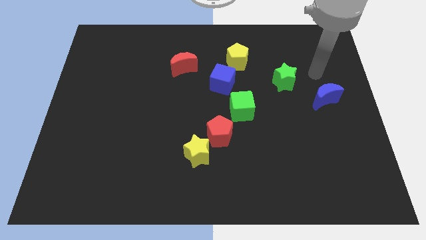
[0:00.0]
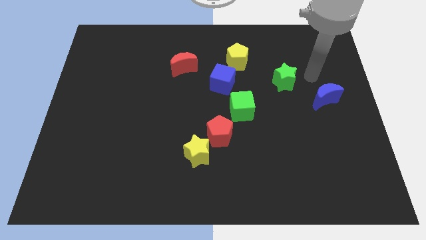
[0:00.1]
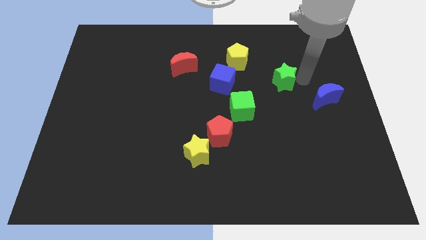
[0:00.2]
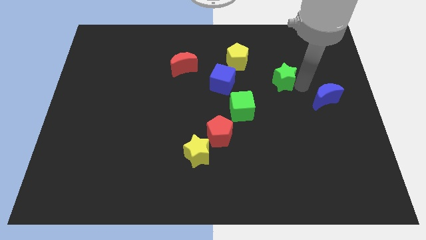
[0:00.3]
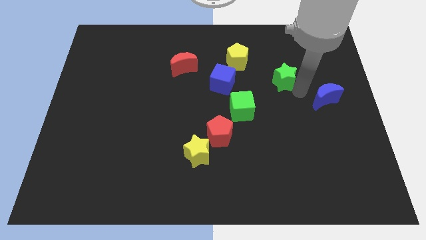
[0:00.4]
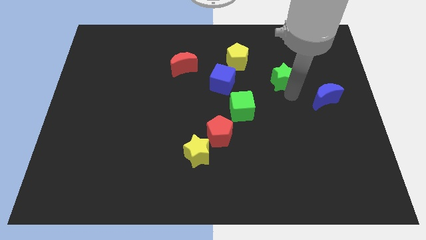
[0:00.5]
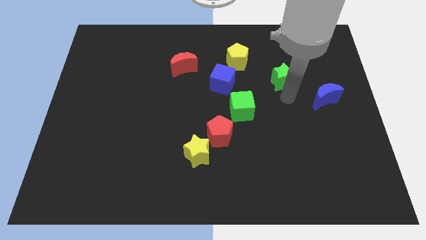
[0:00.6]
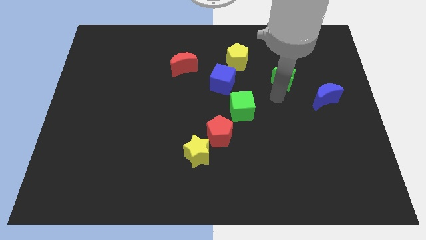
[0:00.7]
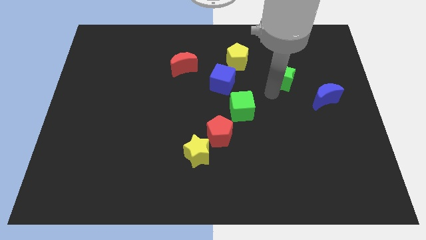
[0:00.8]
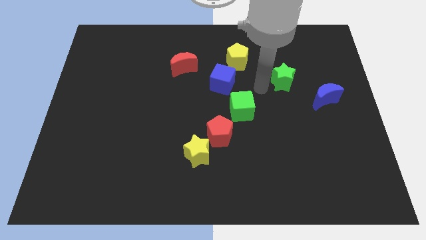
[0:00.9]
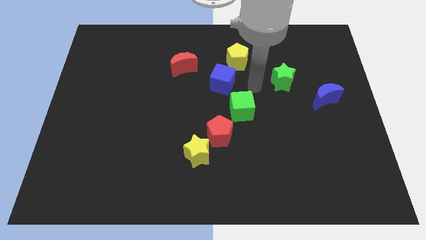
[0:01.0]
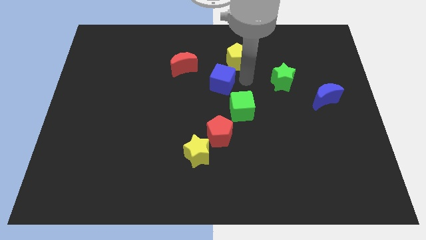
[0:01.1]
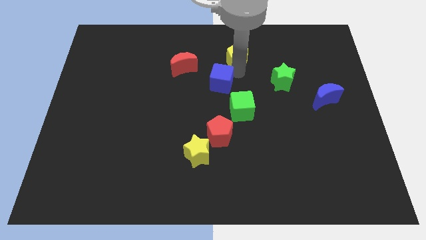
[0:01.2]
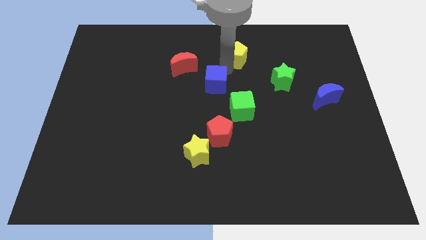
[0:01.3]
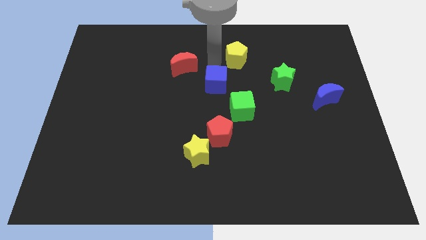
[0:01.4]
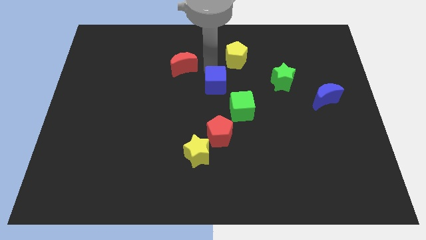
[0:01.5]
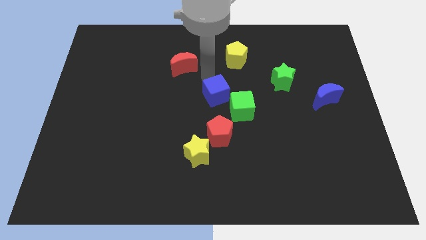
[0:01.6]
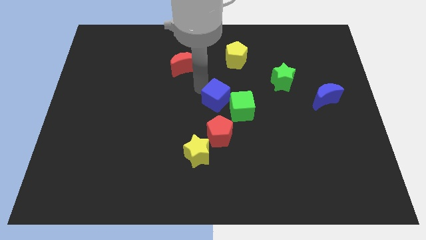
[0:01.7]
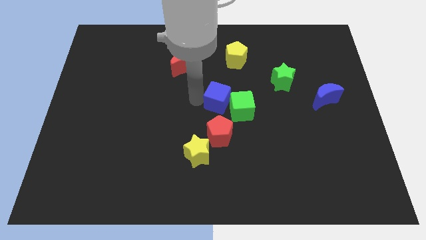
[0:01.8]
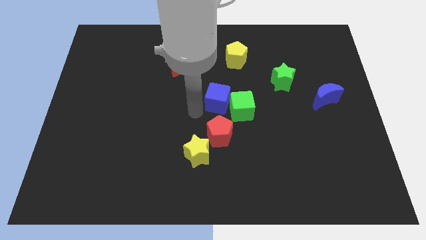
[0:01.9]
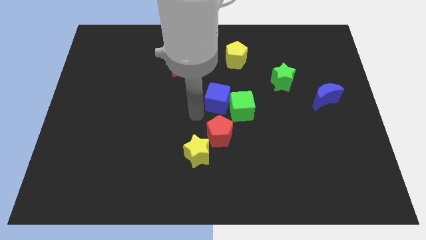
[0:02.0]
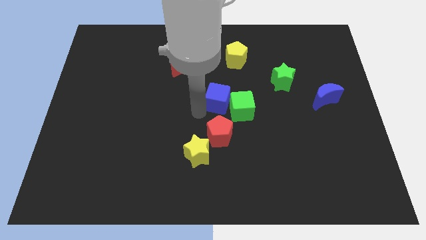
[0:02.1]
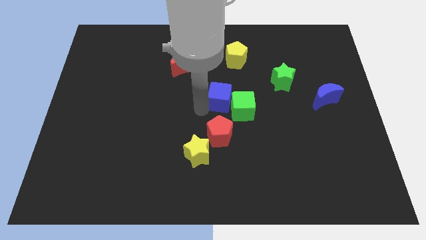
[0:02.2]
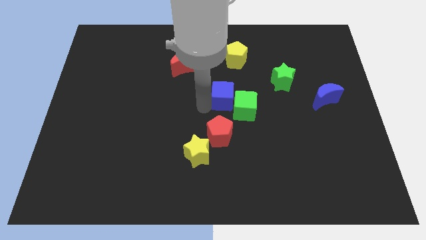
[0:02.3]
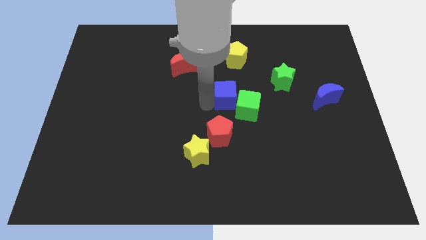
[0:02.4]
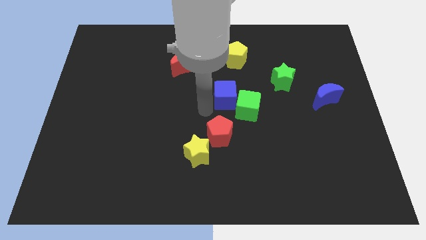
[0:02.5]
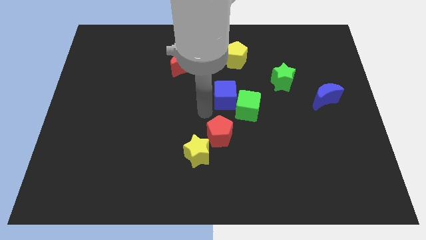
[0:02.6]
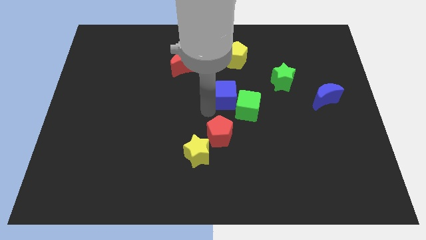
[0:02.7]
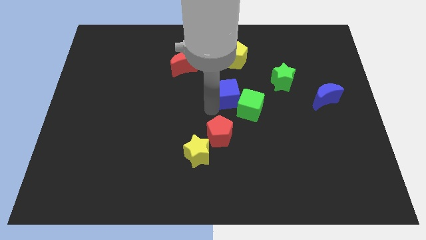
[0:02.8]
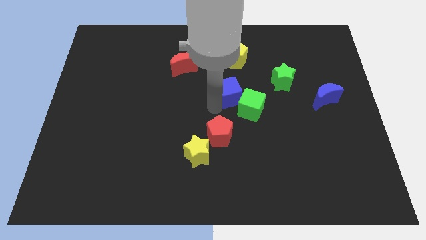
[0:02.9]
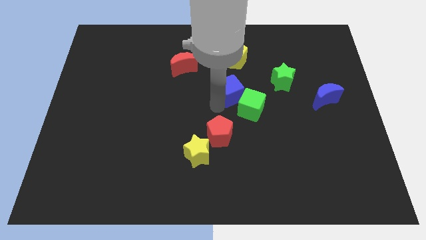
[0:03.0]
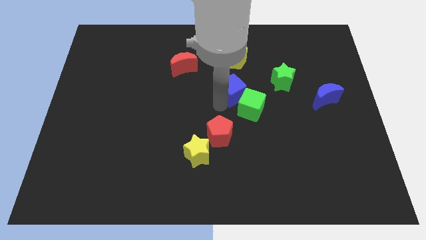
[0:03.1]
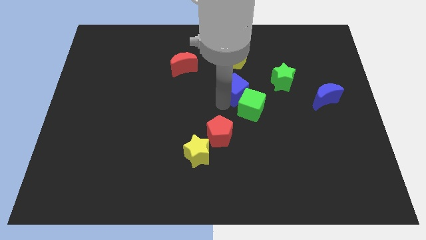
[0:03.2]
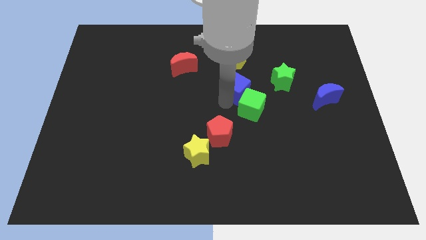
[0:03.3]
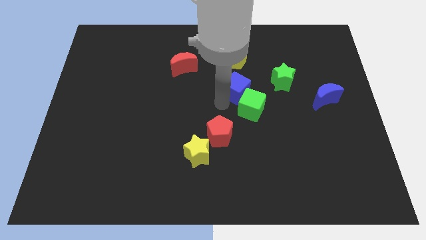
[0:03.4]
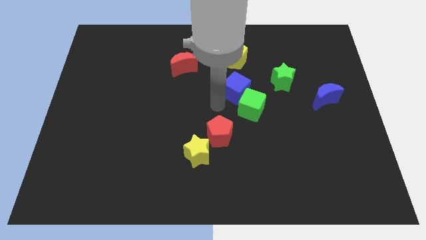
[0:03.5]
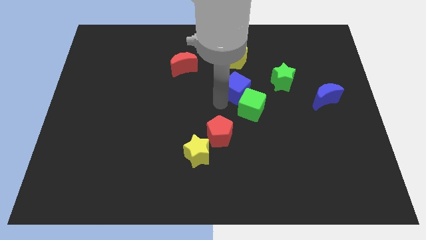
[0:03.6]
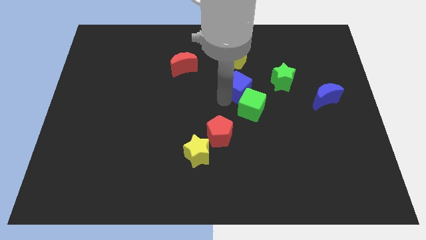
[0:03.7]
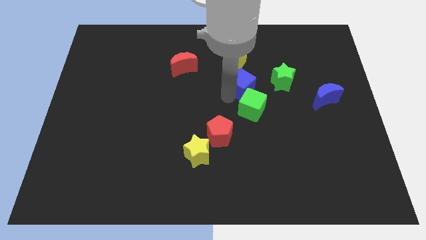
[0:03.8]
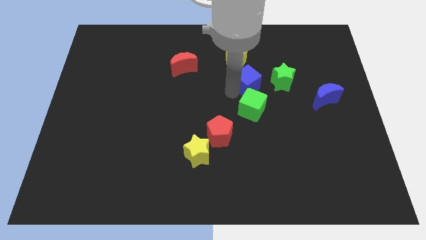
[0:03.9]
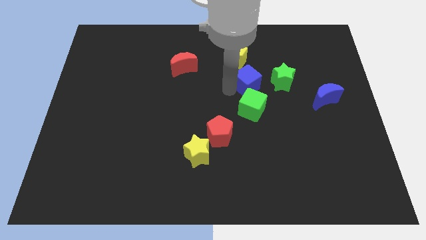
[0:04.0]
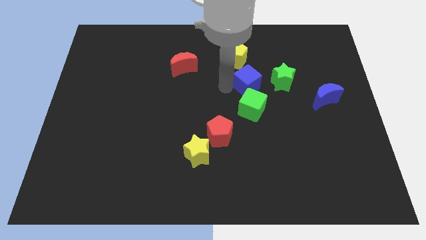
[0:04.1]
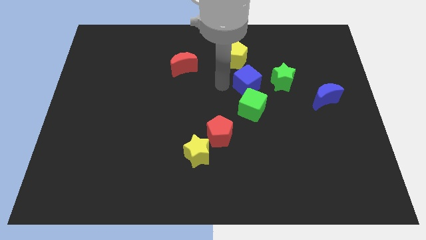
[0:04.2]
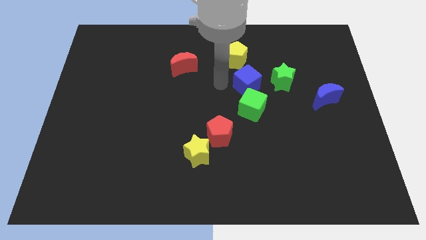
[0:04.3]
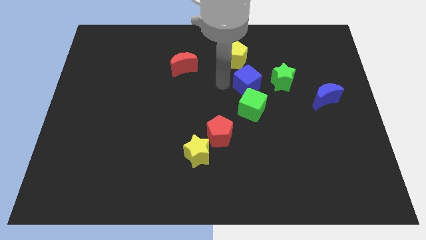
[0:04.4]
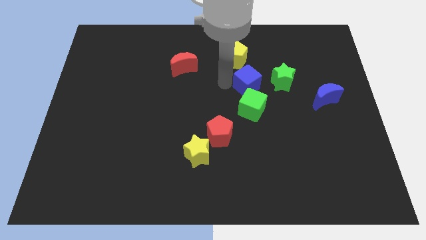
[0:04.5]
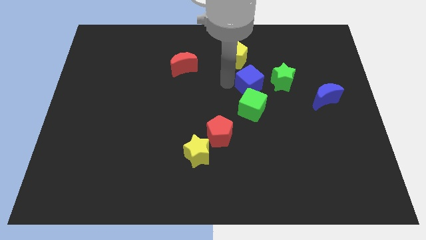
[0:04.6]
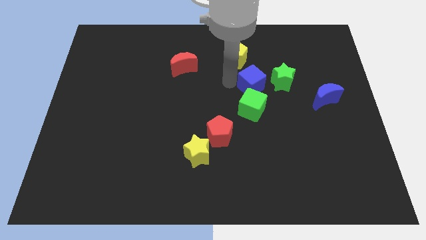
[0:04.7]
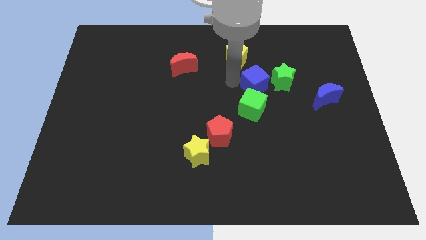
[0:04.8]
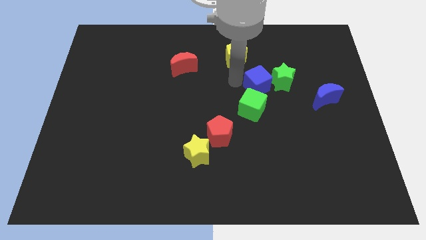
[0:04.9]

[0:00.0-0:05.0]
push the blue cube next to the green star

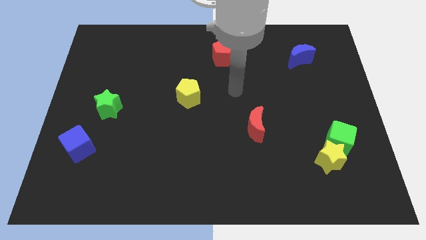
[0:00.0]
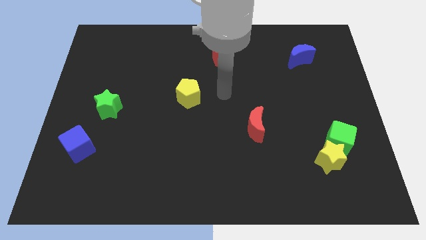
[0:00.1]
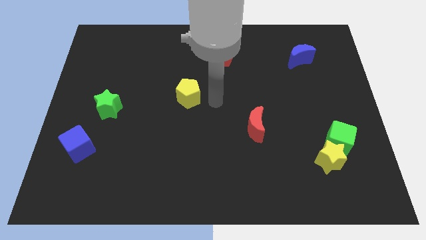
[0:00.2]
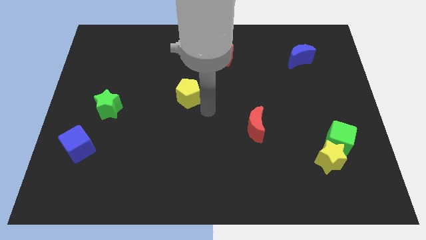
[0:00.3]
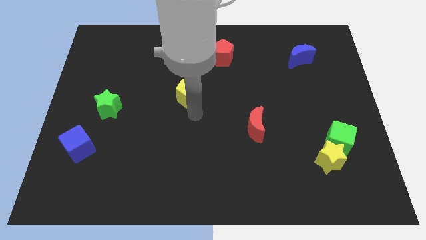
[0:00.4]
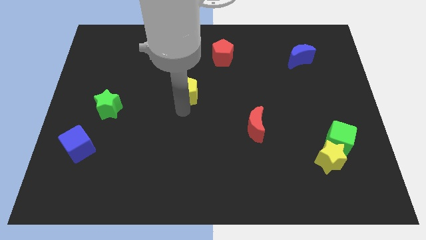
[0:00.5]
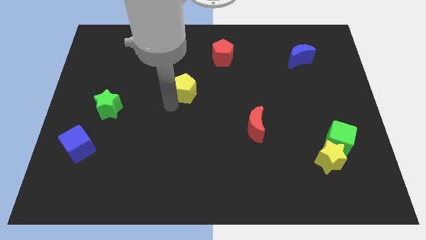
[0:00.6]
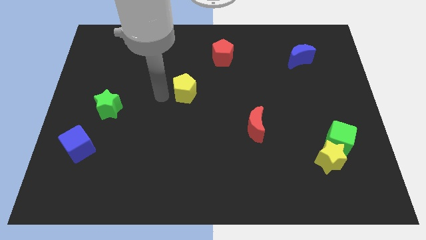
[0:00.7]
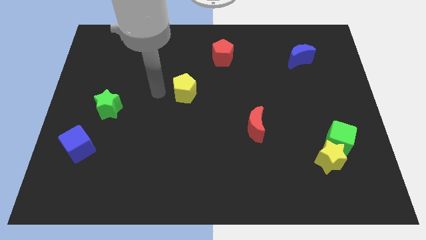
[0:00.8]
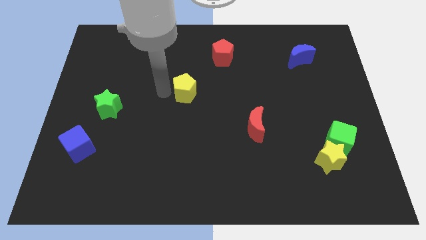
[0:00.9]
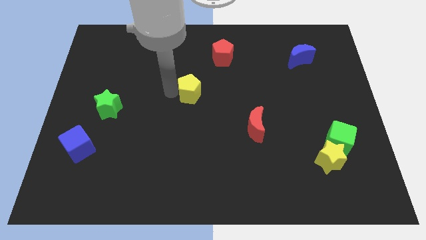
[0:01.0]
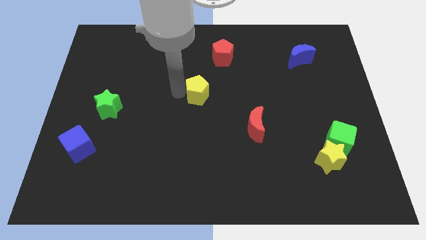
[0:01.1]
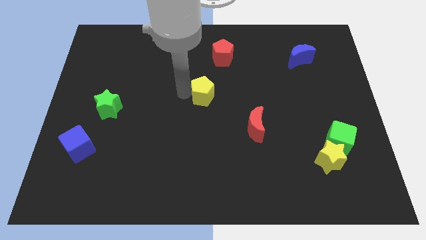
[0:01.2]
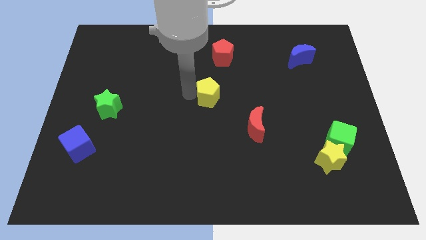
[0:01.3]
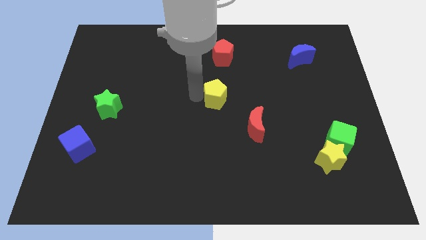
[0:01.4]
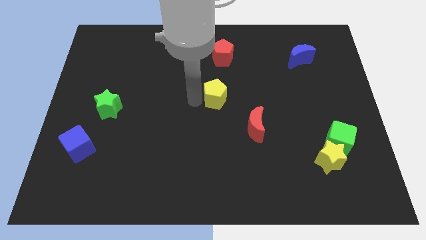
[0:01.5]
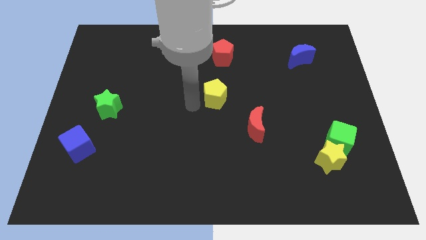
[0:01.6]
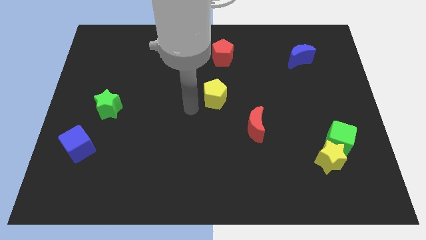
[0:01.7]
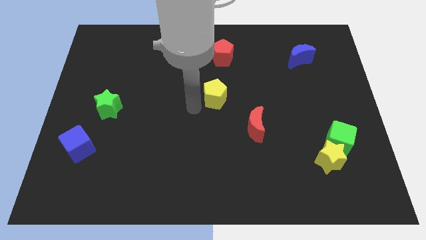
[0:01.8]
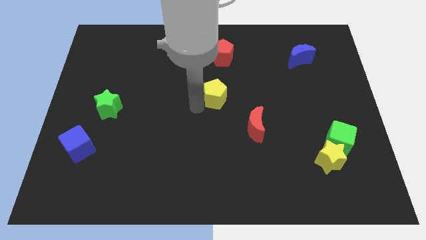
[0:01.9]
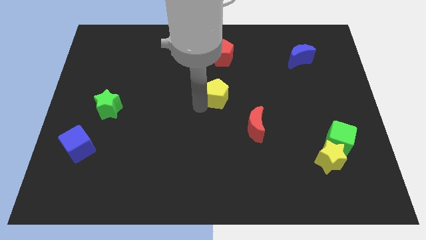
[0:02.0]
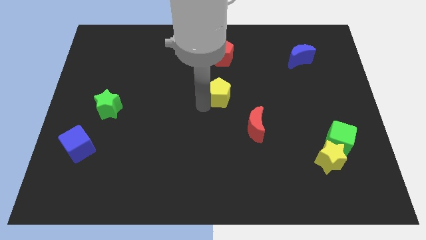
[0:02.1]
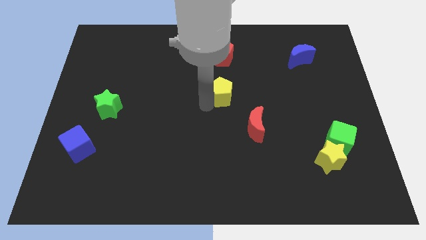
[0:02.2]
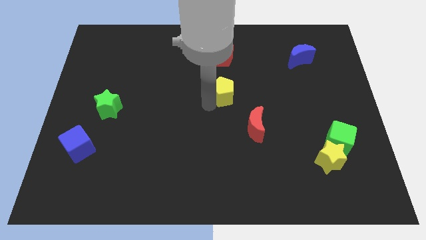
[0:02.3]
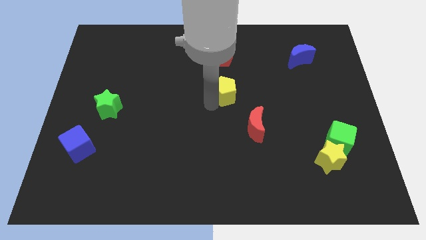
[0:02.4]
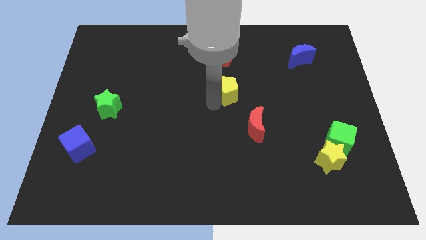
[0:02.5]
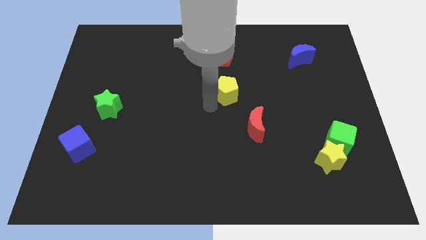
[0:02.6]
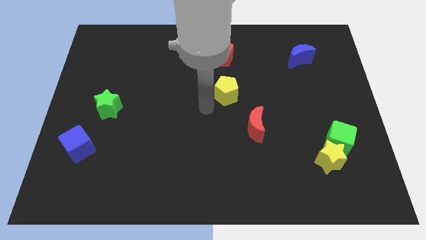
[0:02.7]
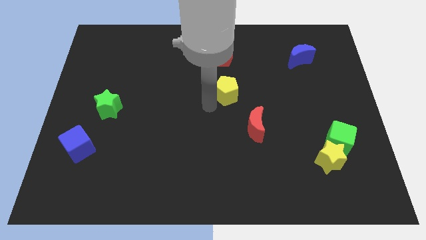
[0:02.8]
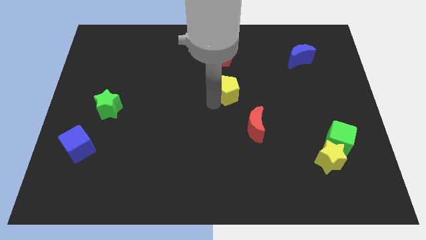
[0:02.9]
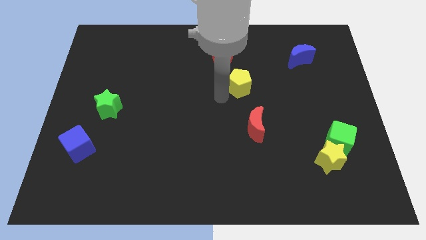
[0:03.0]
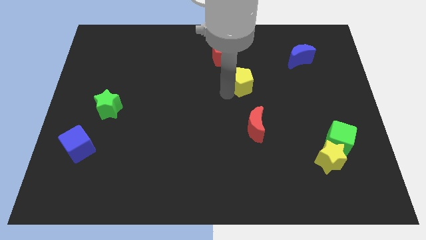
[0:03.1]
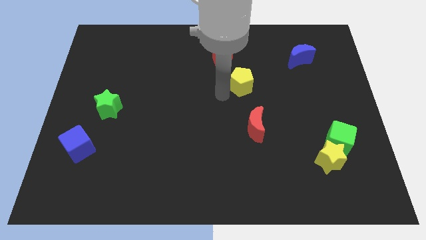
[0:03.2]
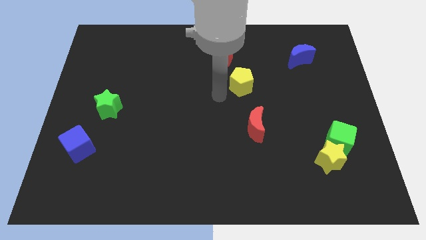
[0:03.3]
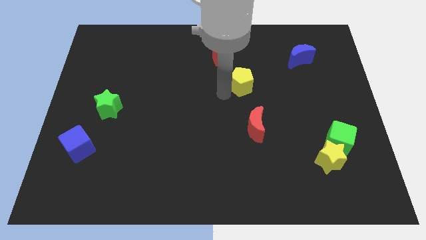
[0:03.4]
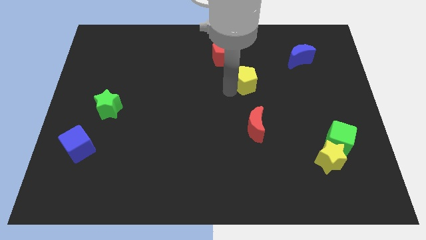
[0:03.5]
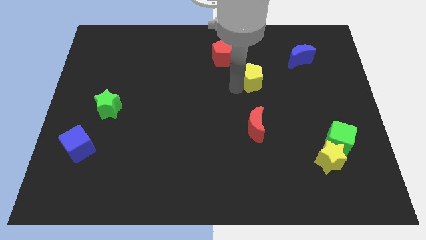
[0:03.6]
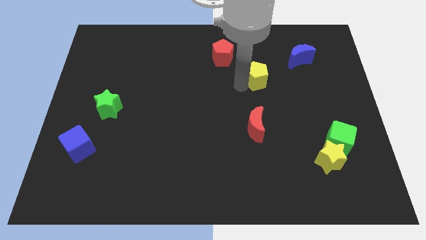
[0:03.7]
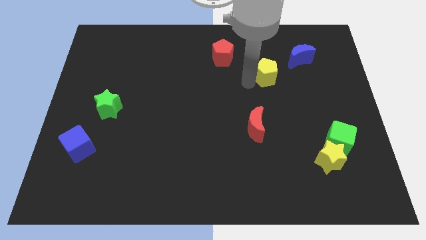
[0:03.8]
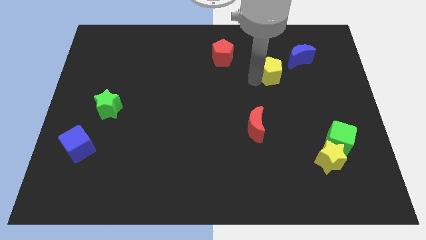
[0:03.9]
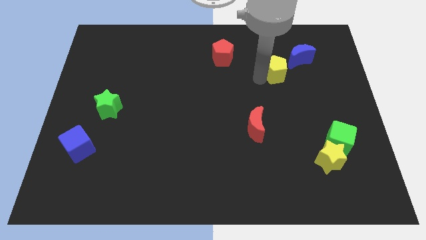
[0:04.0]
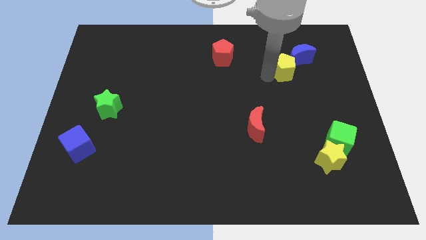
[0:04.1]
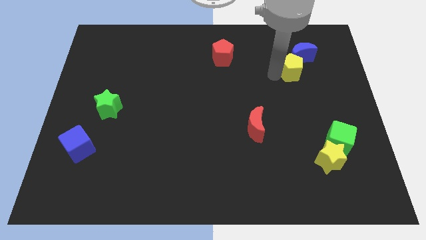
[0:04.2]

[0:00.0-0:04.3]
push the yellow pentagon close to the blue moon
